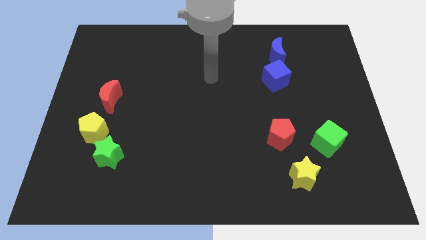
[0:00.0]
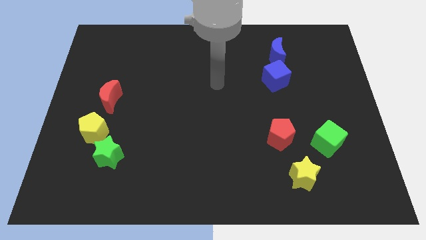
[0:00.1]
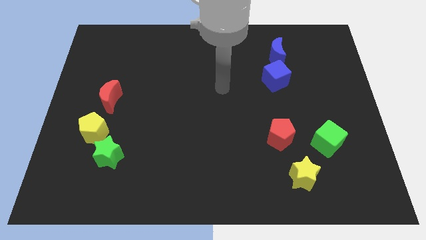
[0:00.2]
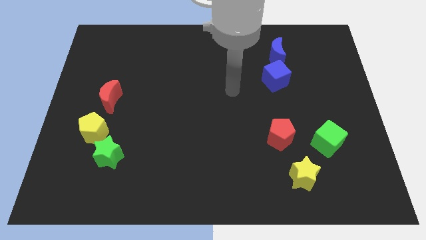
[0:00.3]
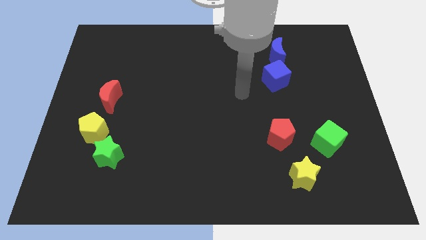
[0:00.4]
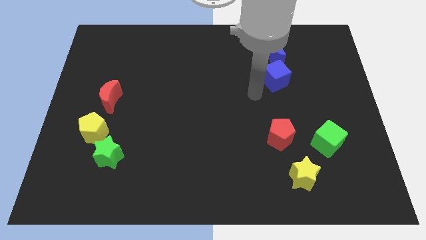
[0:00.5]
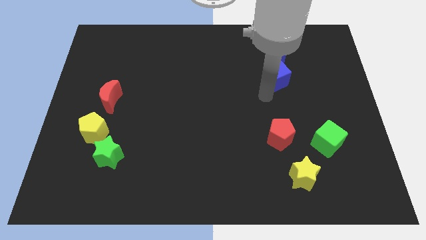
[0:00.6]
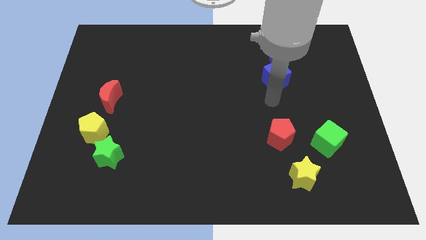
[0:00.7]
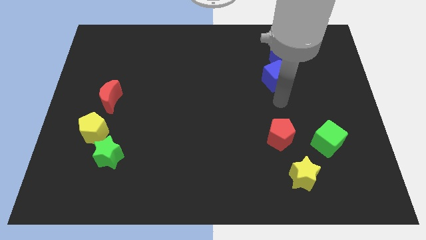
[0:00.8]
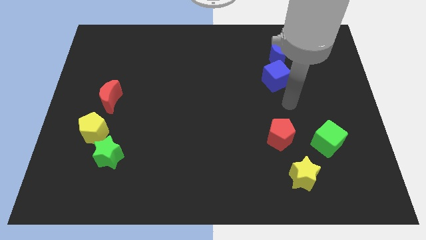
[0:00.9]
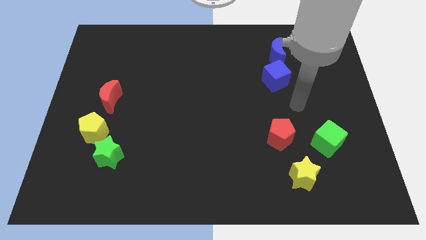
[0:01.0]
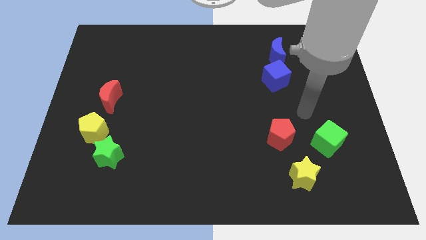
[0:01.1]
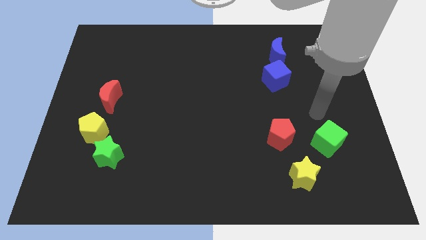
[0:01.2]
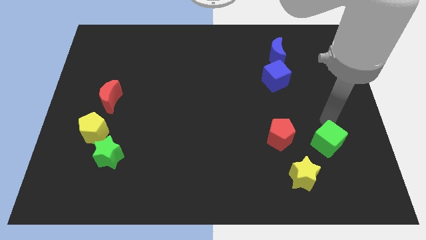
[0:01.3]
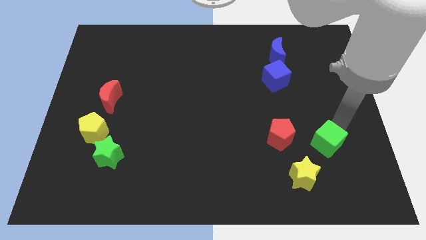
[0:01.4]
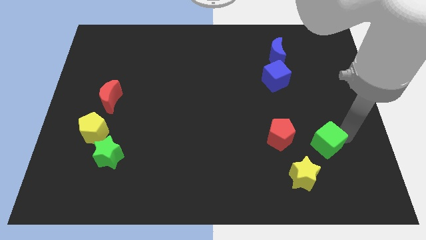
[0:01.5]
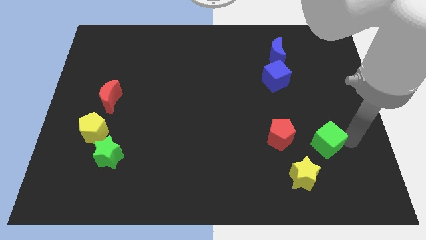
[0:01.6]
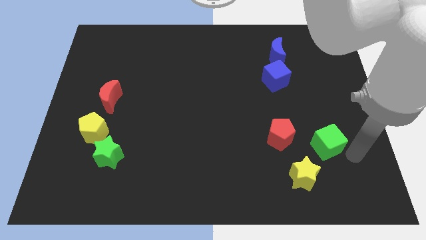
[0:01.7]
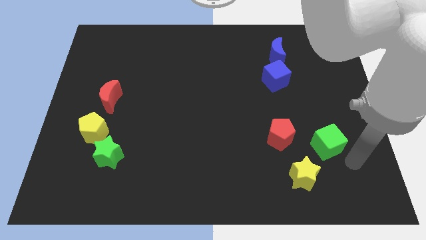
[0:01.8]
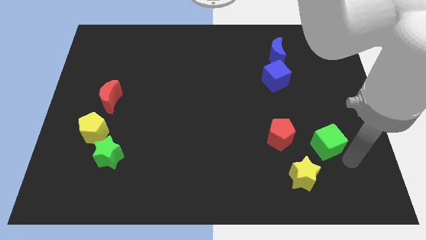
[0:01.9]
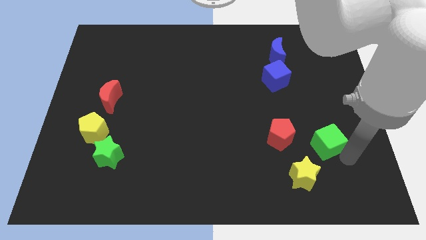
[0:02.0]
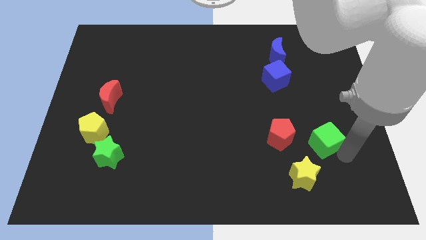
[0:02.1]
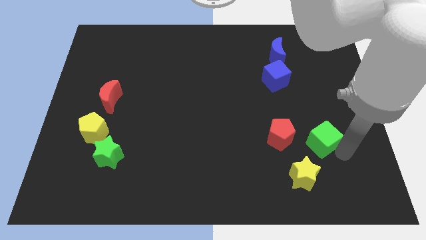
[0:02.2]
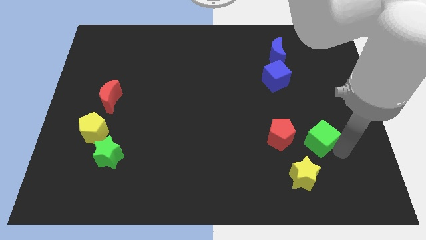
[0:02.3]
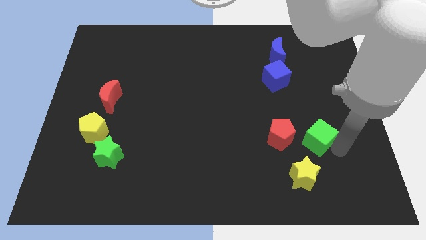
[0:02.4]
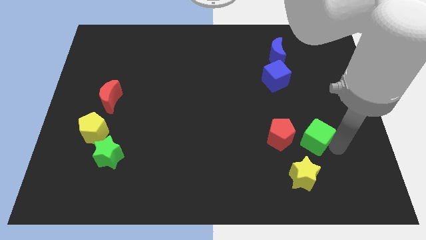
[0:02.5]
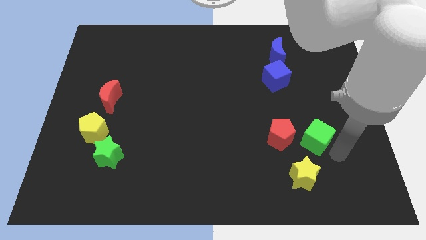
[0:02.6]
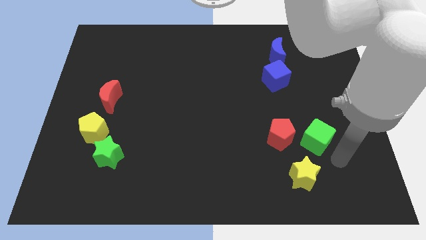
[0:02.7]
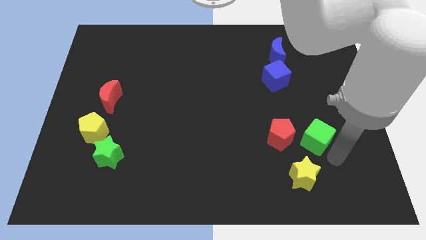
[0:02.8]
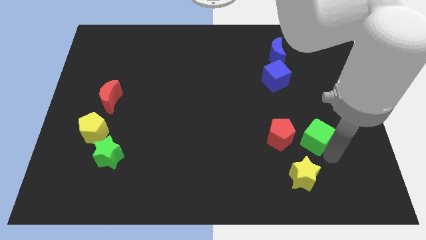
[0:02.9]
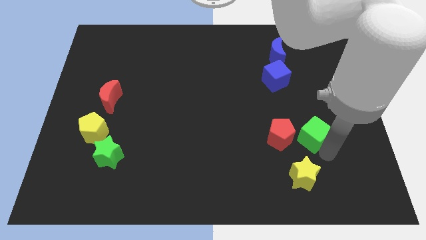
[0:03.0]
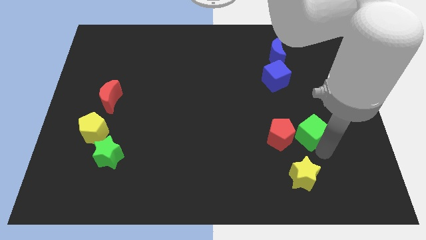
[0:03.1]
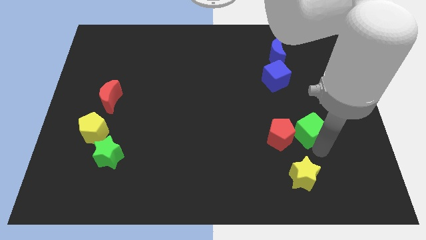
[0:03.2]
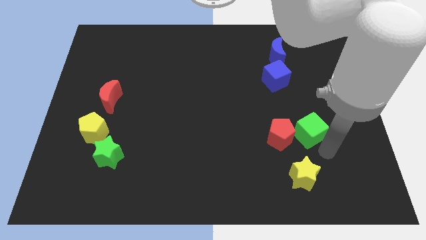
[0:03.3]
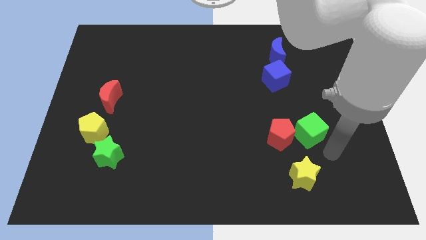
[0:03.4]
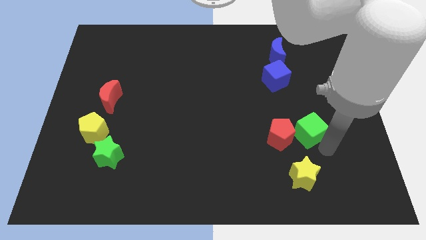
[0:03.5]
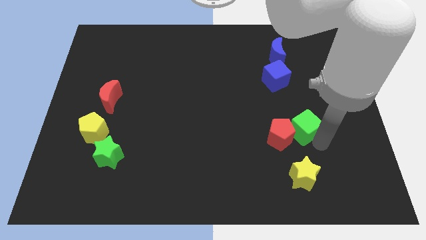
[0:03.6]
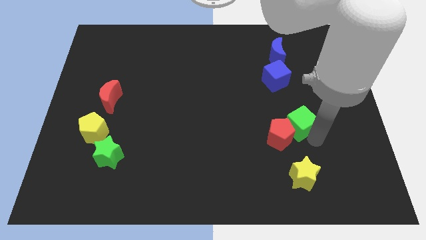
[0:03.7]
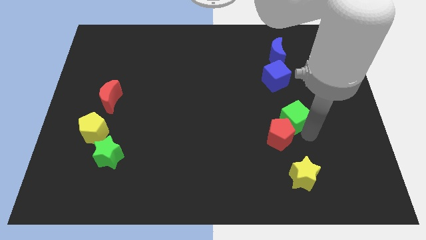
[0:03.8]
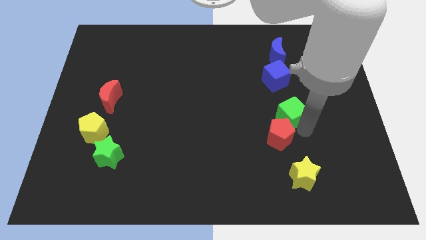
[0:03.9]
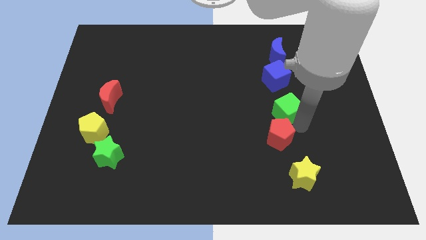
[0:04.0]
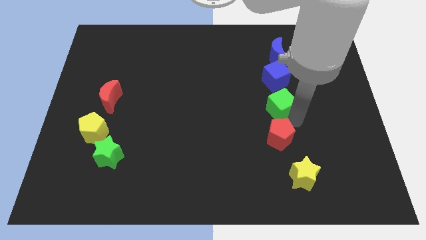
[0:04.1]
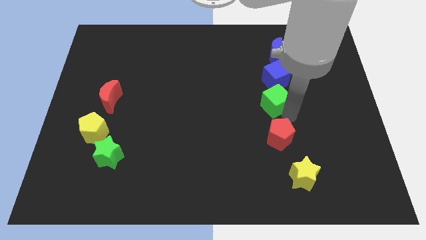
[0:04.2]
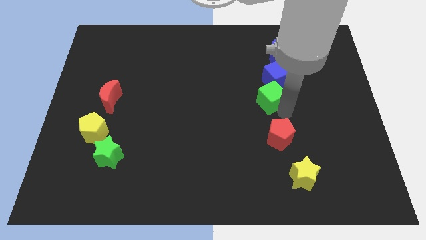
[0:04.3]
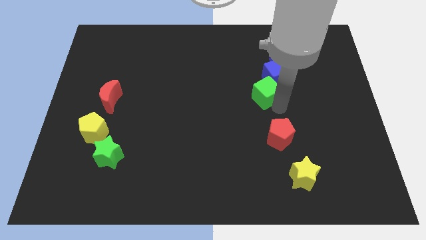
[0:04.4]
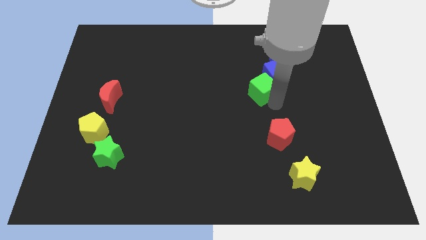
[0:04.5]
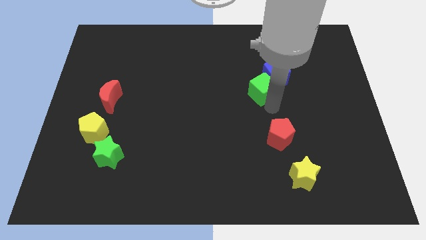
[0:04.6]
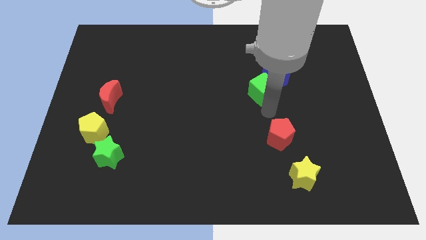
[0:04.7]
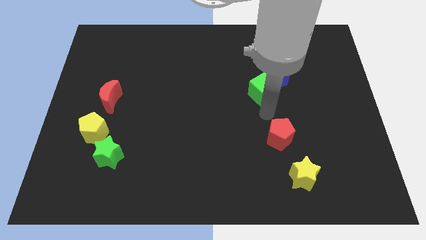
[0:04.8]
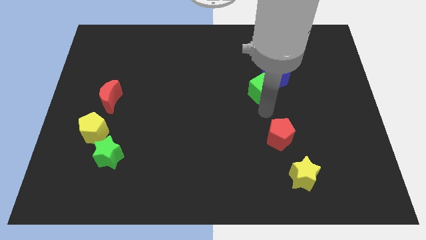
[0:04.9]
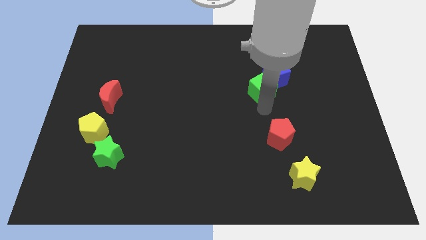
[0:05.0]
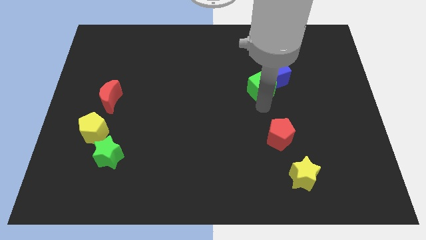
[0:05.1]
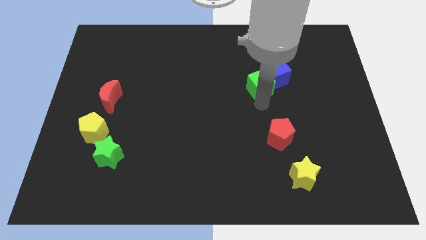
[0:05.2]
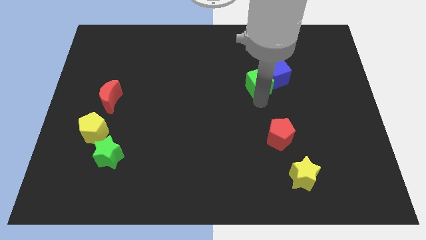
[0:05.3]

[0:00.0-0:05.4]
push the green cube to the bottom left side of the blue moon

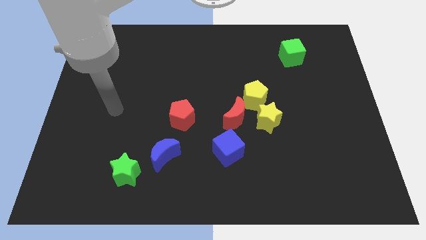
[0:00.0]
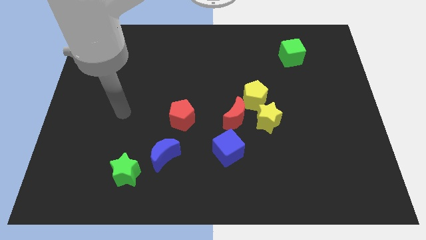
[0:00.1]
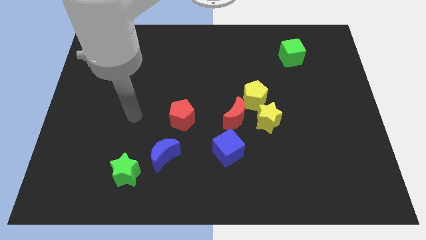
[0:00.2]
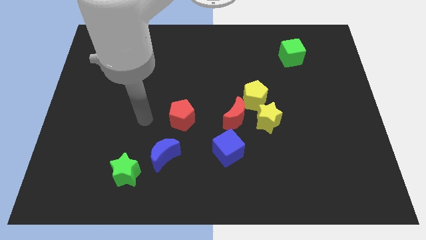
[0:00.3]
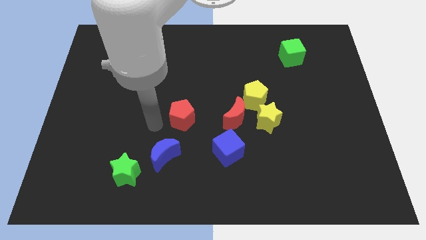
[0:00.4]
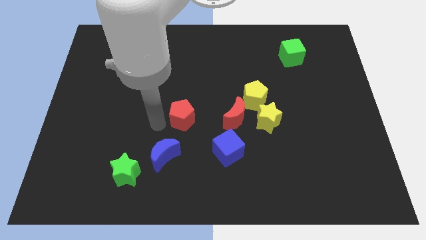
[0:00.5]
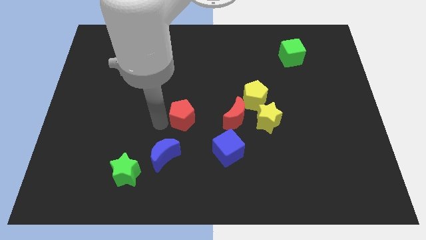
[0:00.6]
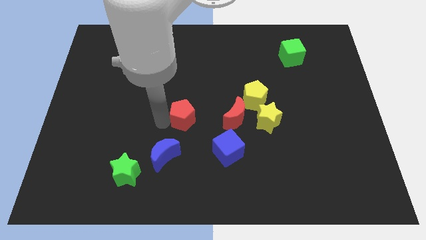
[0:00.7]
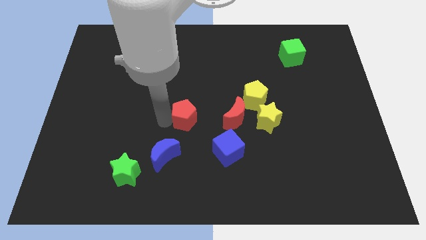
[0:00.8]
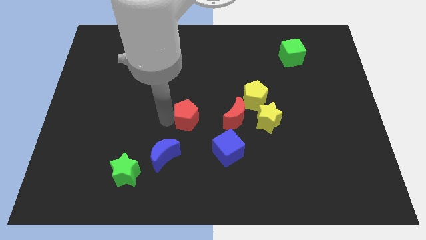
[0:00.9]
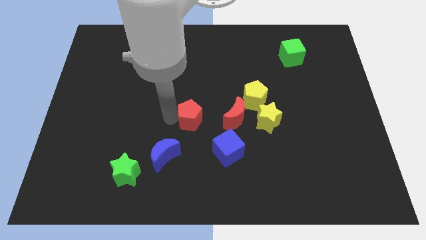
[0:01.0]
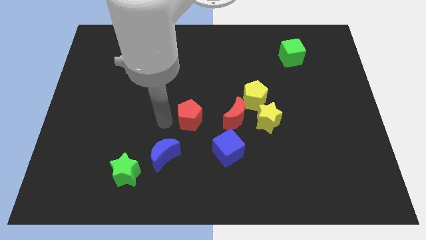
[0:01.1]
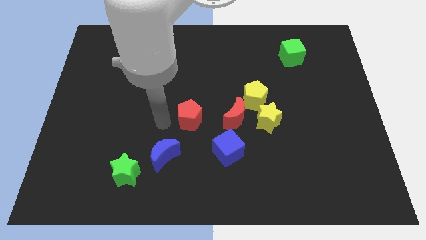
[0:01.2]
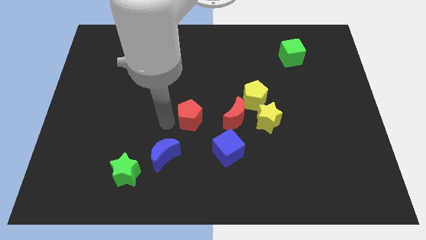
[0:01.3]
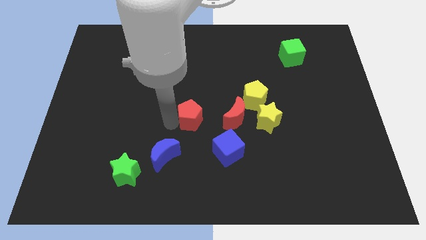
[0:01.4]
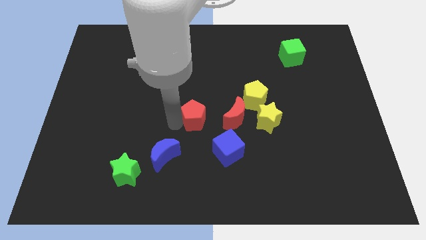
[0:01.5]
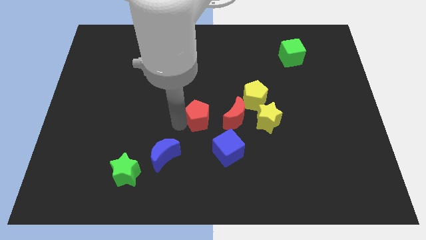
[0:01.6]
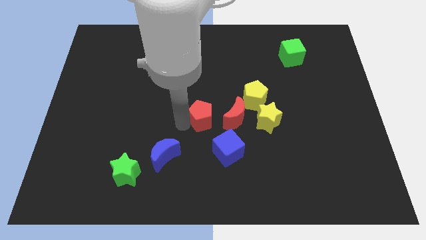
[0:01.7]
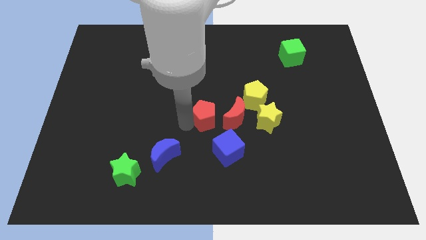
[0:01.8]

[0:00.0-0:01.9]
slide the red pentagon above the blue cube

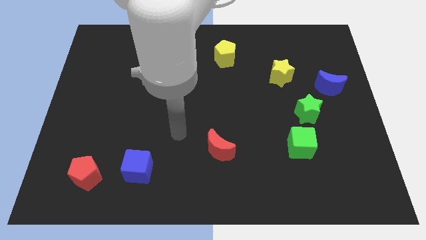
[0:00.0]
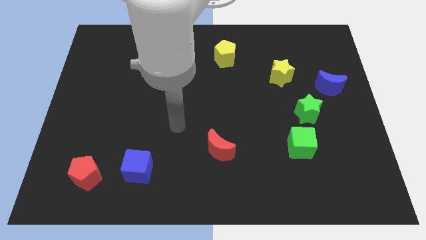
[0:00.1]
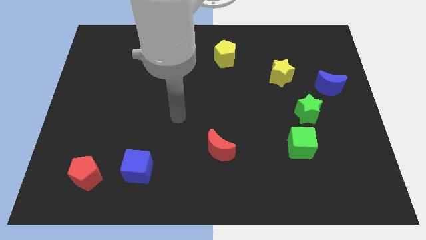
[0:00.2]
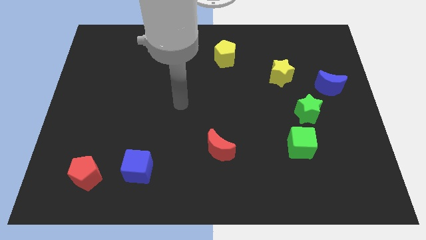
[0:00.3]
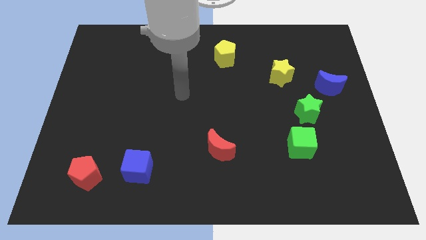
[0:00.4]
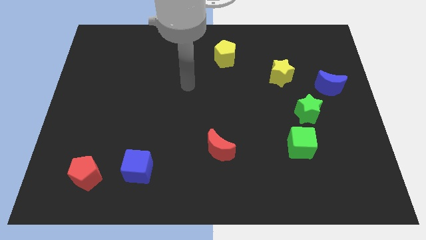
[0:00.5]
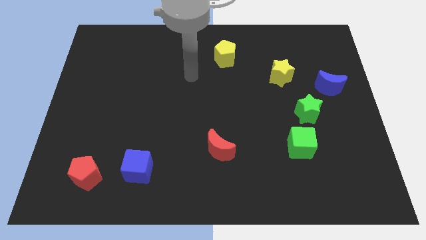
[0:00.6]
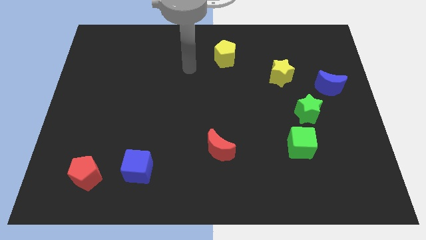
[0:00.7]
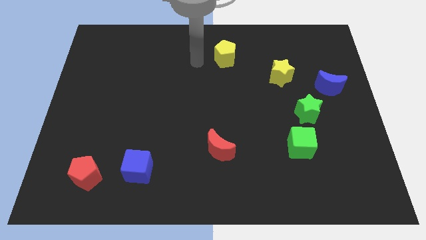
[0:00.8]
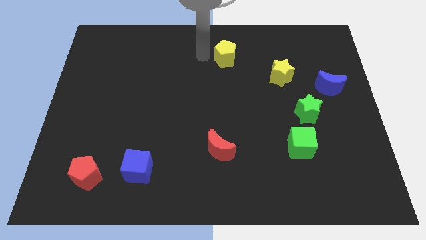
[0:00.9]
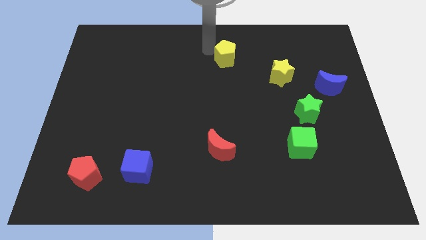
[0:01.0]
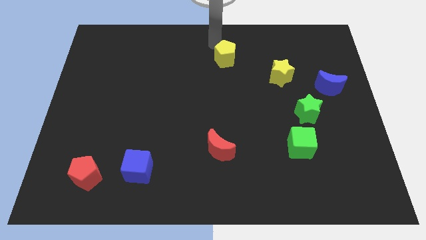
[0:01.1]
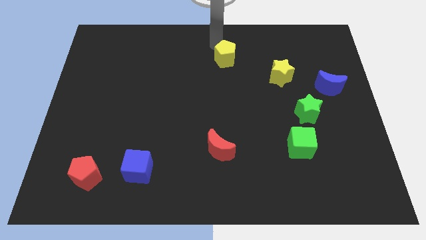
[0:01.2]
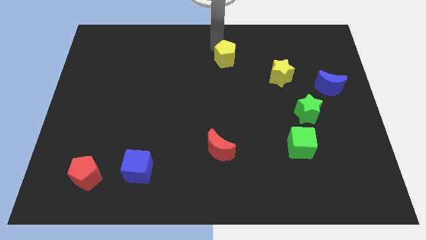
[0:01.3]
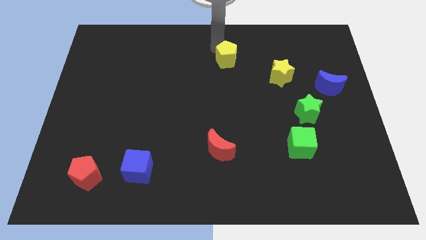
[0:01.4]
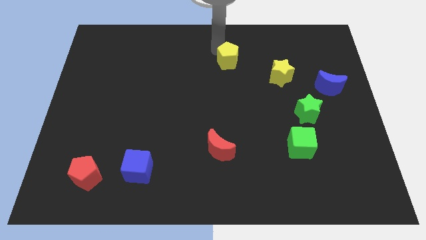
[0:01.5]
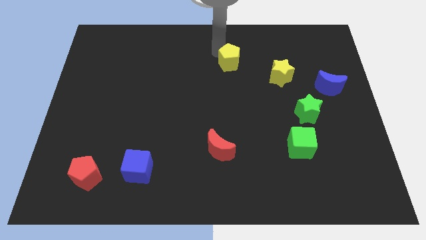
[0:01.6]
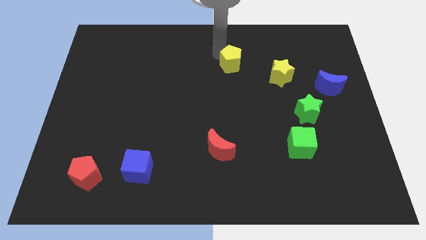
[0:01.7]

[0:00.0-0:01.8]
push the yellow pentagon to the left side of the yellow star
